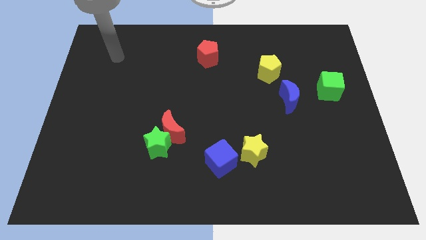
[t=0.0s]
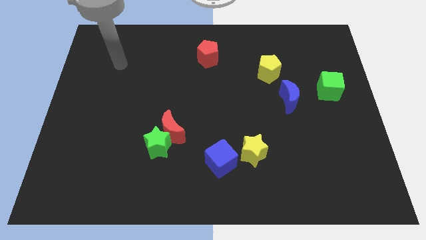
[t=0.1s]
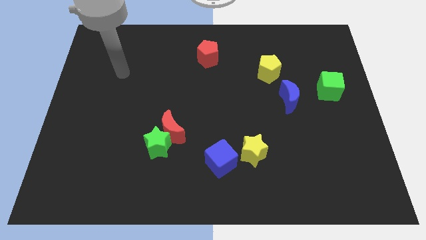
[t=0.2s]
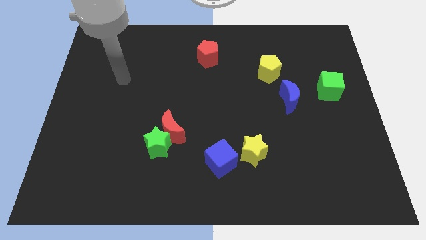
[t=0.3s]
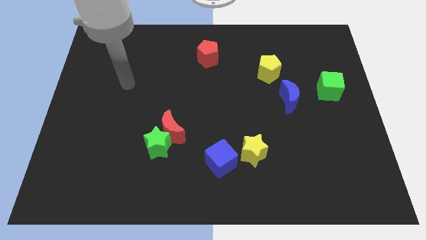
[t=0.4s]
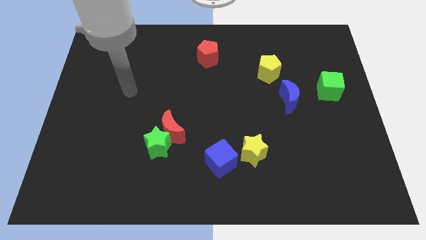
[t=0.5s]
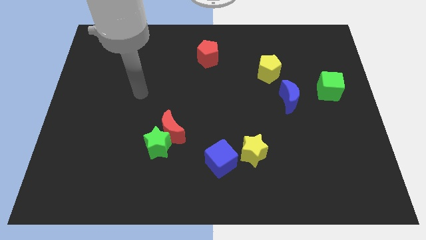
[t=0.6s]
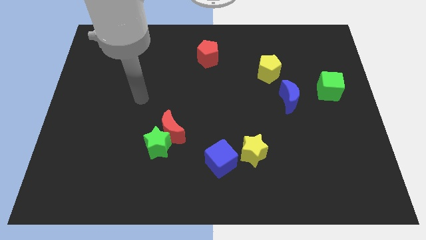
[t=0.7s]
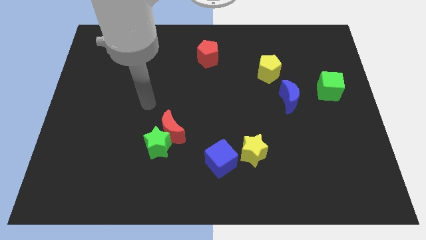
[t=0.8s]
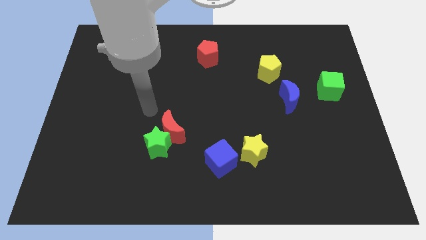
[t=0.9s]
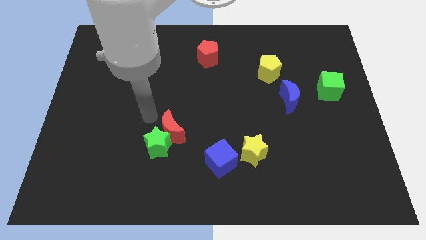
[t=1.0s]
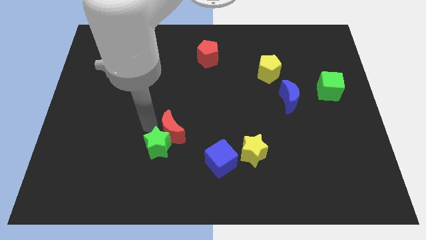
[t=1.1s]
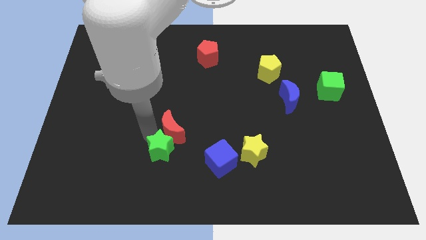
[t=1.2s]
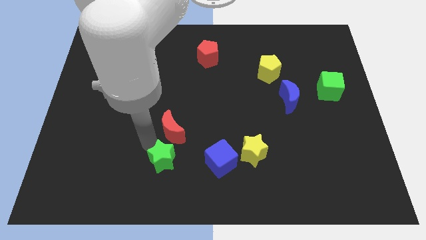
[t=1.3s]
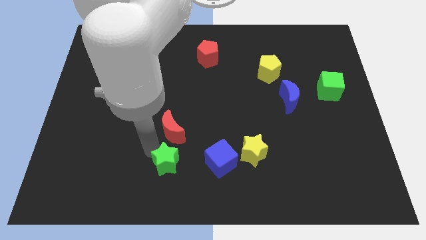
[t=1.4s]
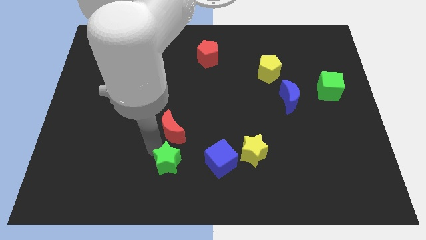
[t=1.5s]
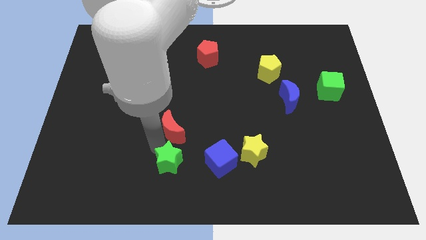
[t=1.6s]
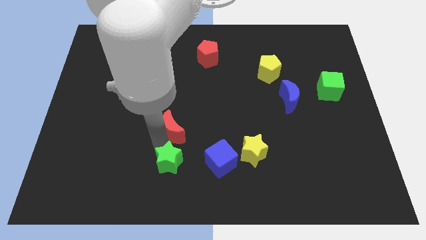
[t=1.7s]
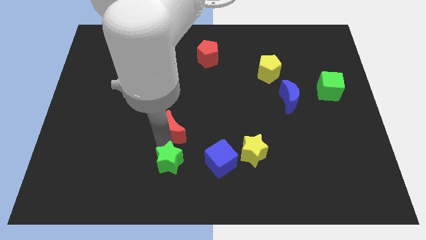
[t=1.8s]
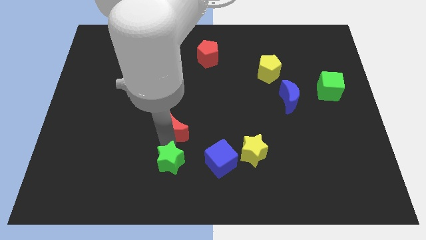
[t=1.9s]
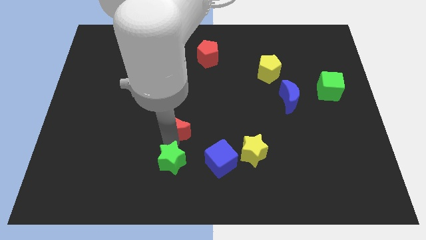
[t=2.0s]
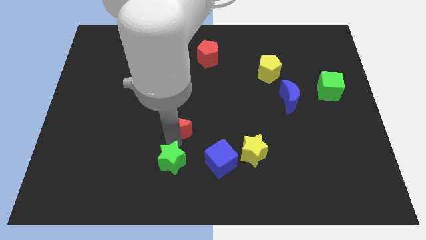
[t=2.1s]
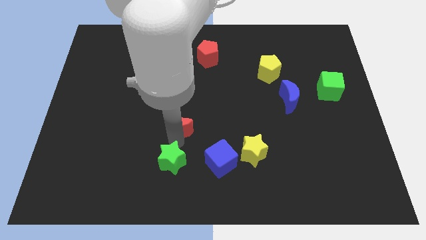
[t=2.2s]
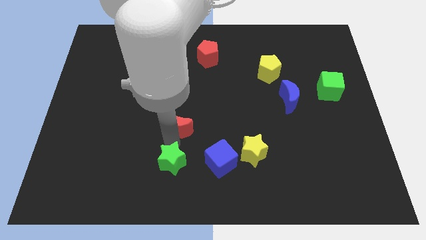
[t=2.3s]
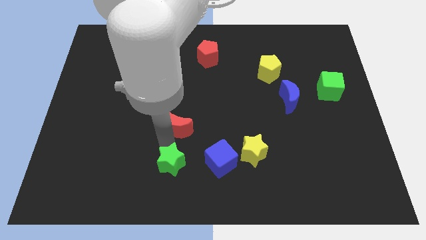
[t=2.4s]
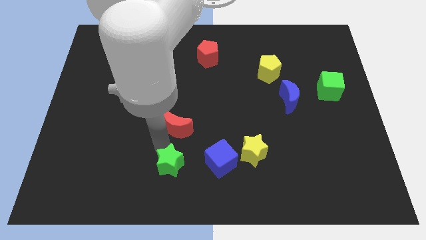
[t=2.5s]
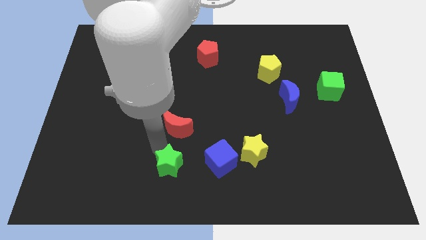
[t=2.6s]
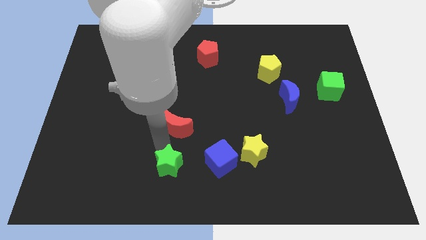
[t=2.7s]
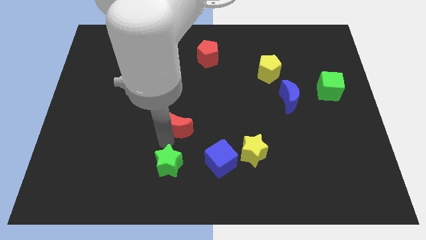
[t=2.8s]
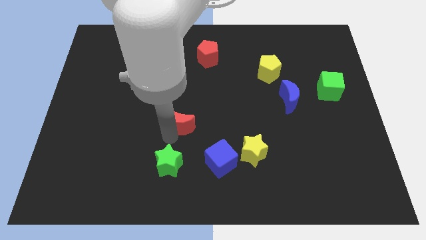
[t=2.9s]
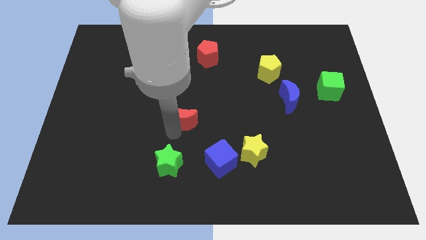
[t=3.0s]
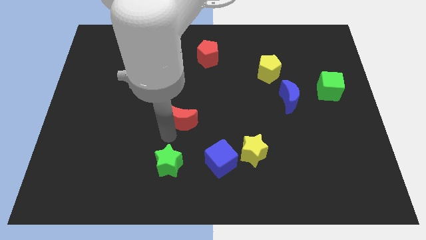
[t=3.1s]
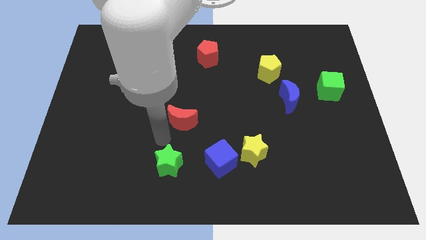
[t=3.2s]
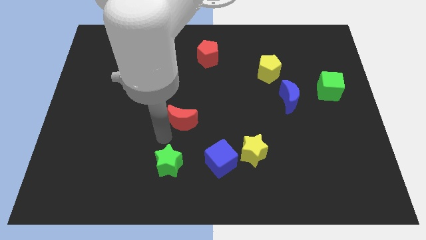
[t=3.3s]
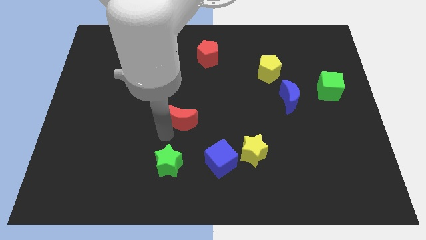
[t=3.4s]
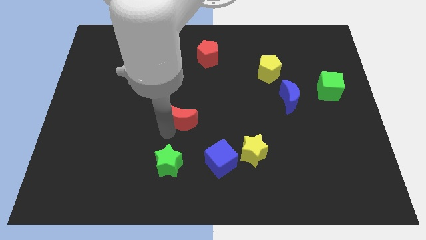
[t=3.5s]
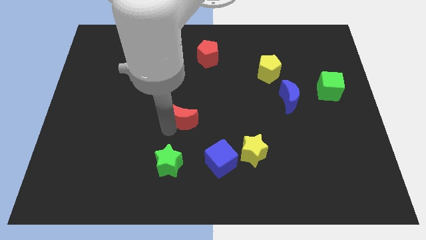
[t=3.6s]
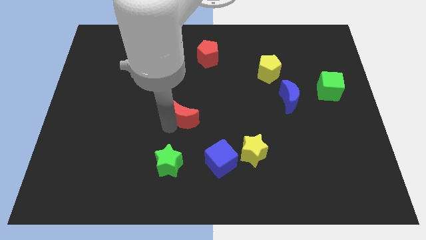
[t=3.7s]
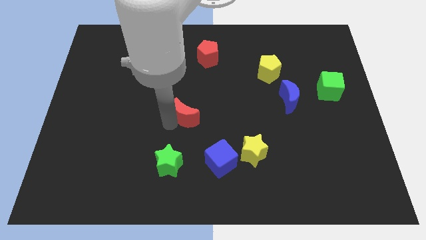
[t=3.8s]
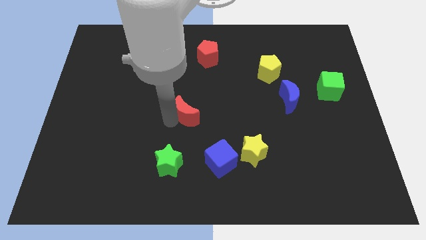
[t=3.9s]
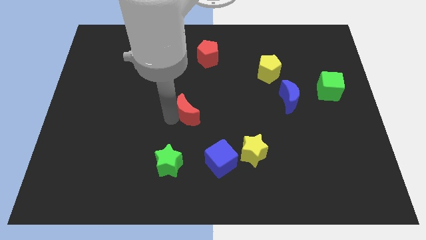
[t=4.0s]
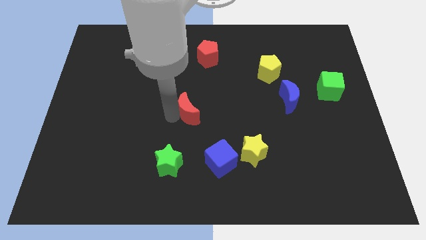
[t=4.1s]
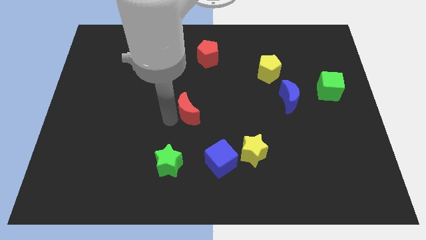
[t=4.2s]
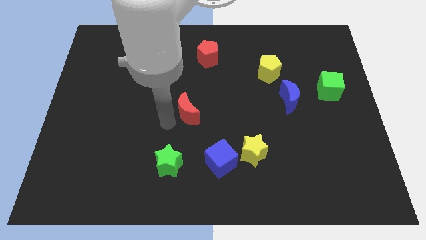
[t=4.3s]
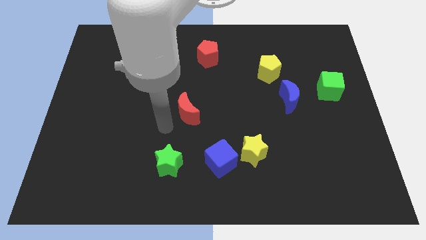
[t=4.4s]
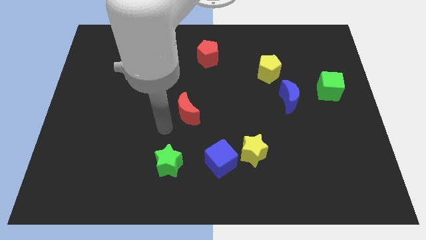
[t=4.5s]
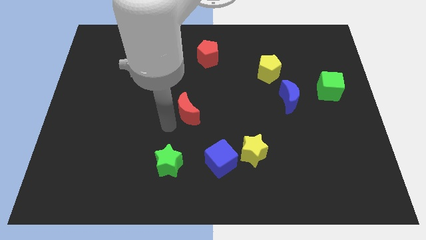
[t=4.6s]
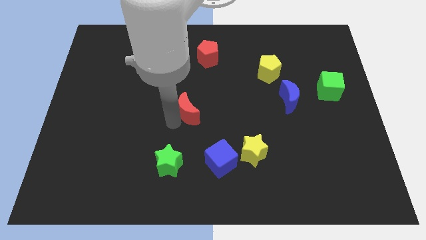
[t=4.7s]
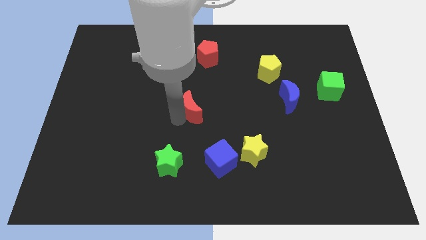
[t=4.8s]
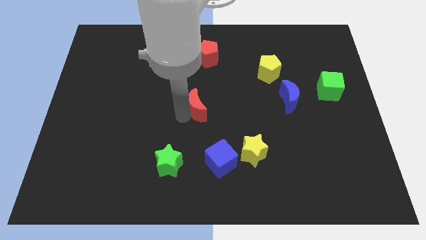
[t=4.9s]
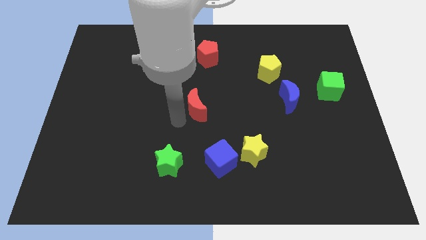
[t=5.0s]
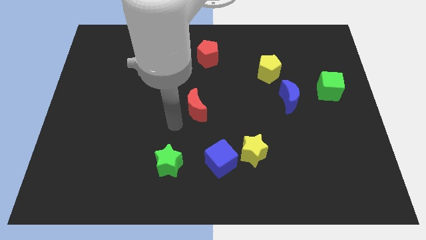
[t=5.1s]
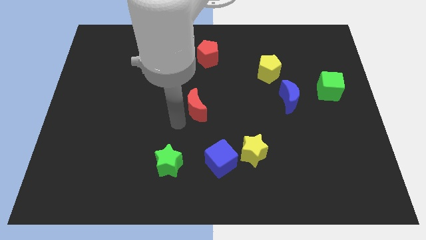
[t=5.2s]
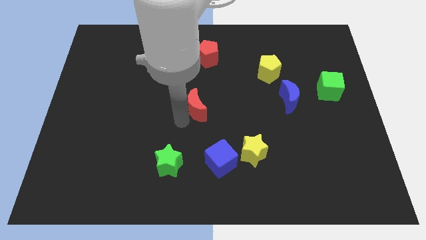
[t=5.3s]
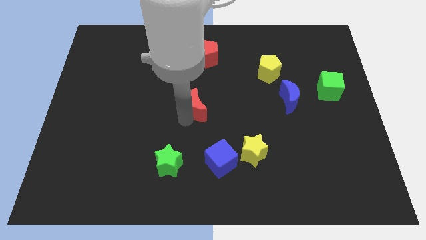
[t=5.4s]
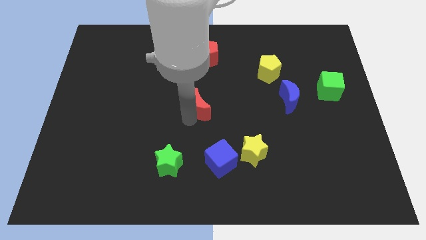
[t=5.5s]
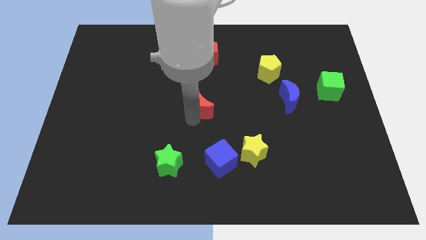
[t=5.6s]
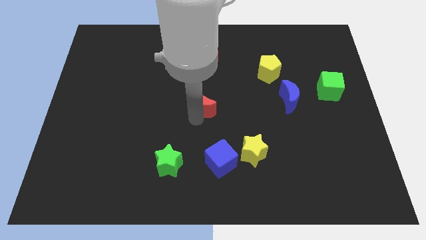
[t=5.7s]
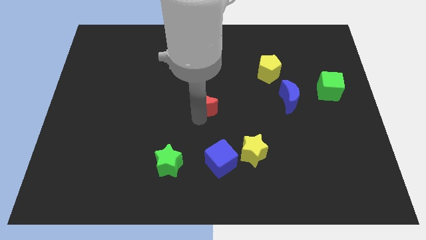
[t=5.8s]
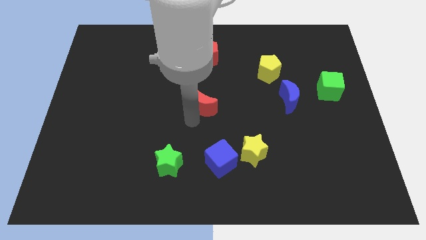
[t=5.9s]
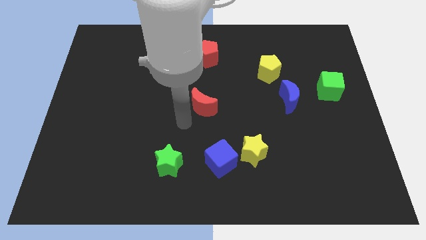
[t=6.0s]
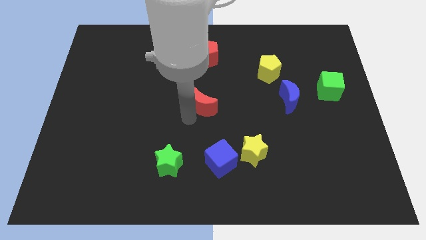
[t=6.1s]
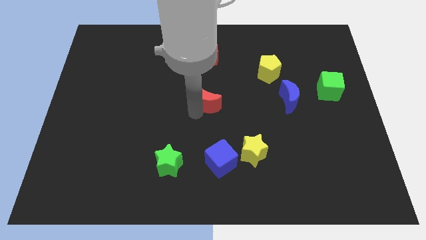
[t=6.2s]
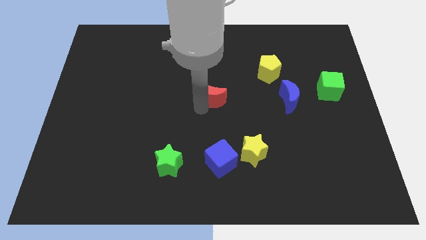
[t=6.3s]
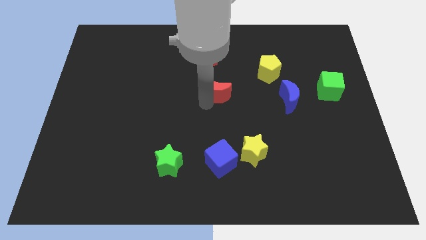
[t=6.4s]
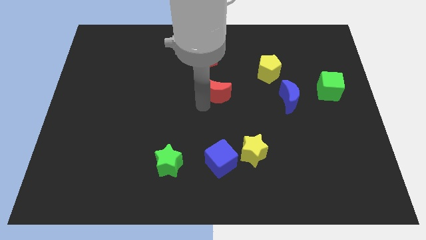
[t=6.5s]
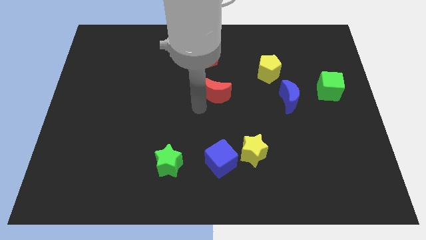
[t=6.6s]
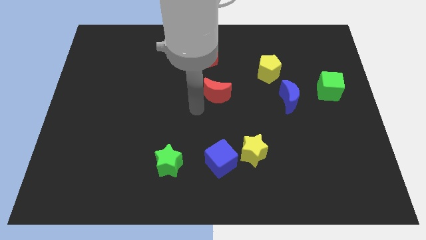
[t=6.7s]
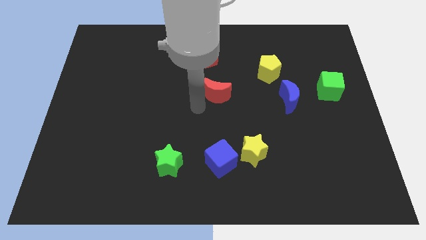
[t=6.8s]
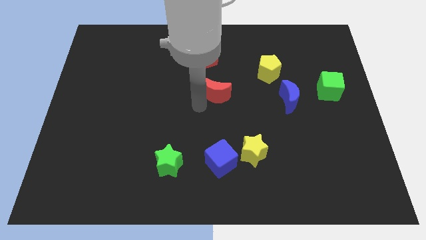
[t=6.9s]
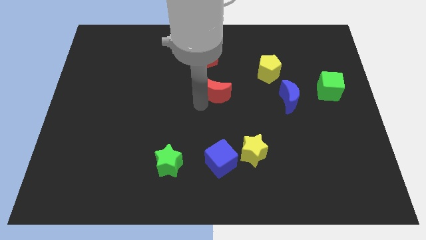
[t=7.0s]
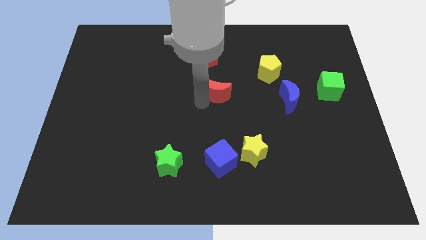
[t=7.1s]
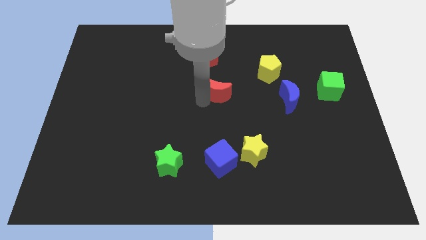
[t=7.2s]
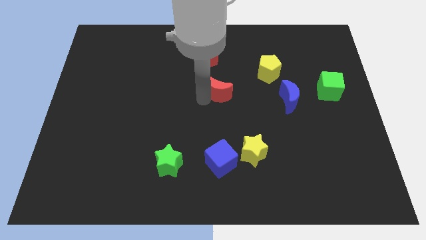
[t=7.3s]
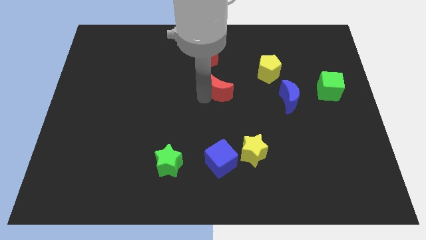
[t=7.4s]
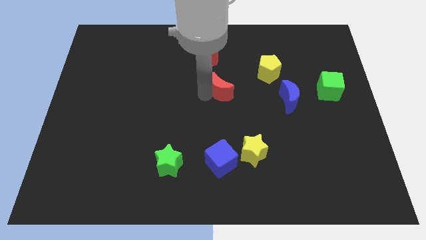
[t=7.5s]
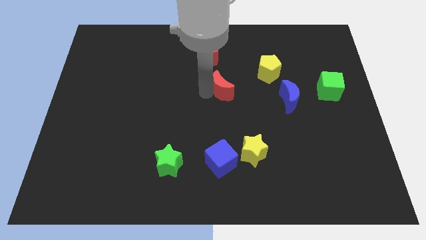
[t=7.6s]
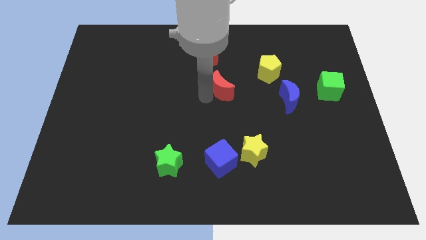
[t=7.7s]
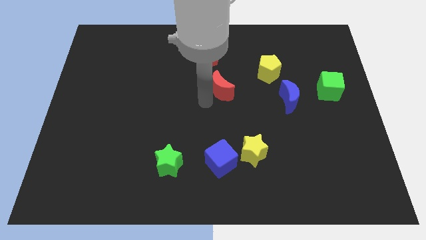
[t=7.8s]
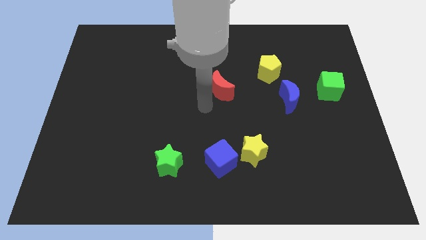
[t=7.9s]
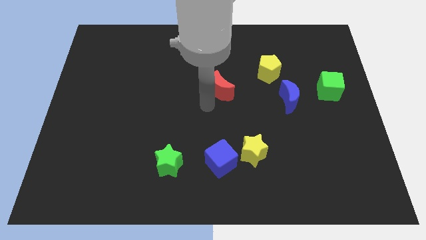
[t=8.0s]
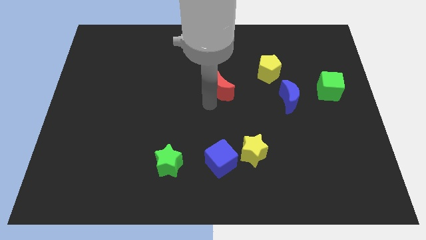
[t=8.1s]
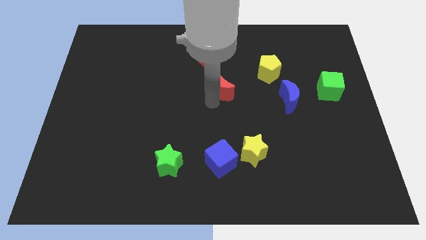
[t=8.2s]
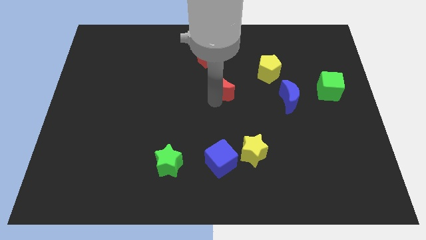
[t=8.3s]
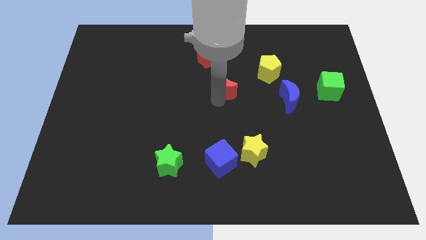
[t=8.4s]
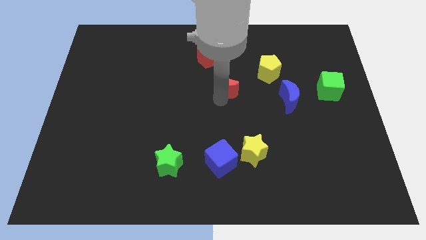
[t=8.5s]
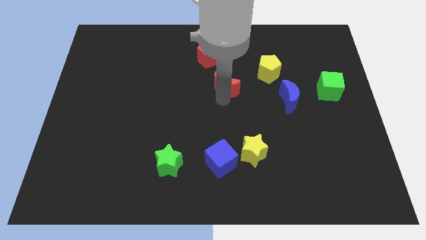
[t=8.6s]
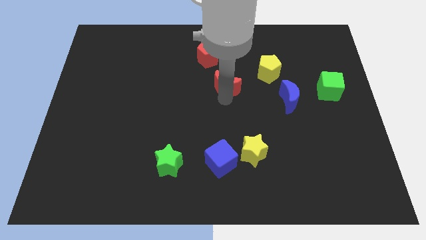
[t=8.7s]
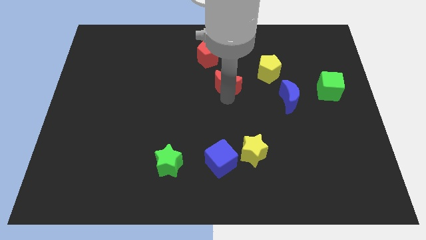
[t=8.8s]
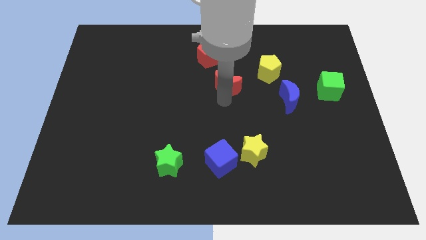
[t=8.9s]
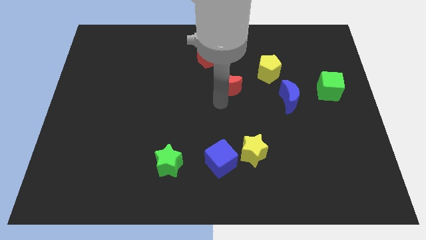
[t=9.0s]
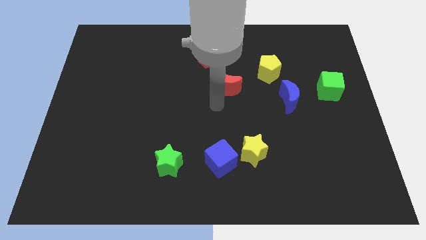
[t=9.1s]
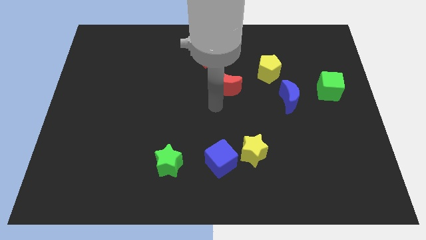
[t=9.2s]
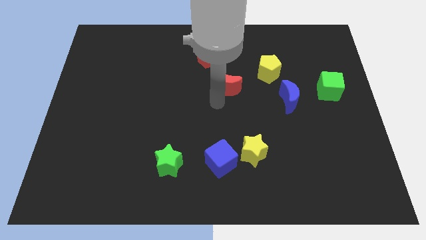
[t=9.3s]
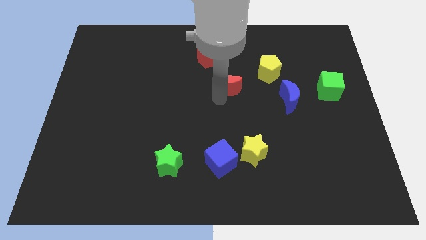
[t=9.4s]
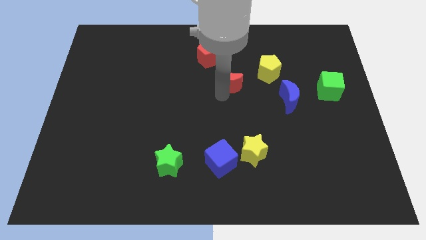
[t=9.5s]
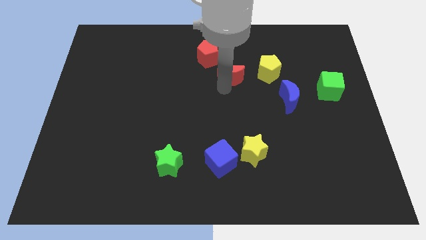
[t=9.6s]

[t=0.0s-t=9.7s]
push the red moon diagonally upwards and to the right
